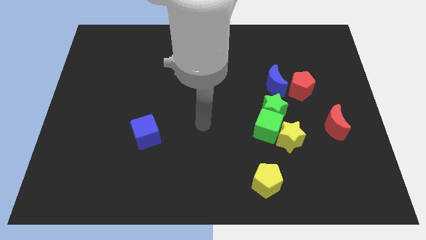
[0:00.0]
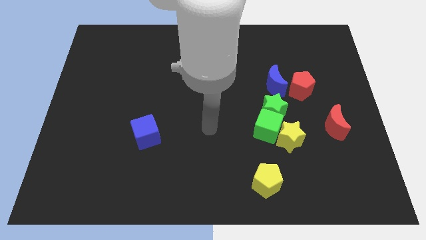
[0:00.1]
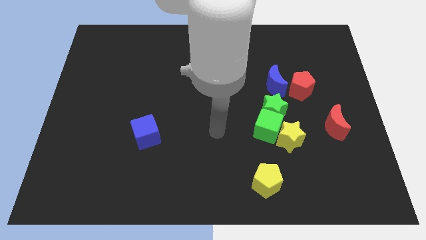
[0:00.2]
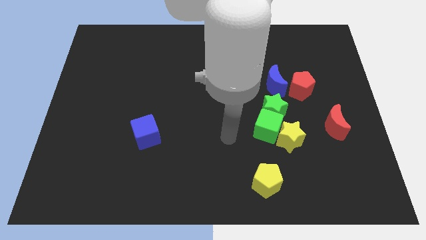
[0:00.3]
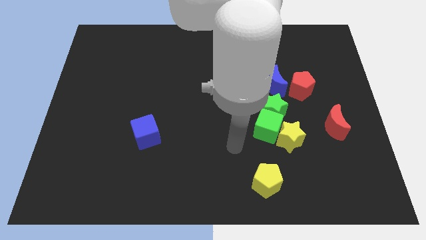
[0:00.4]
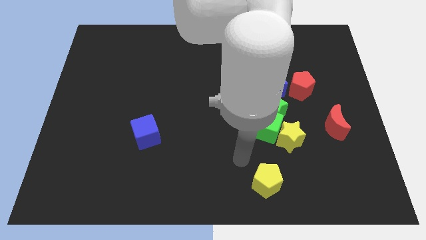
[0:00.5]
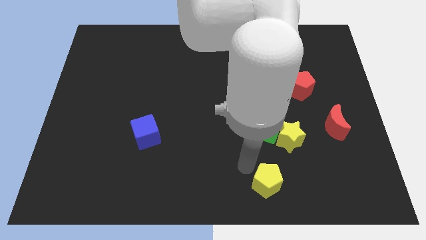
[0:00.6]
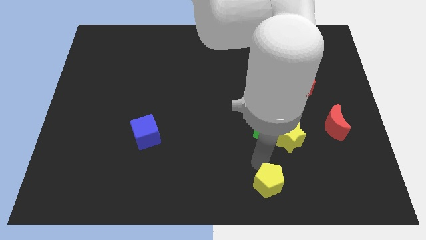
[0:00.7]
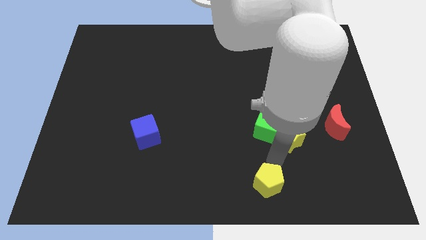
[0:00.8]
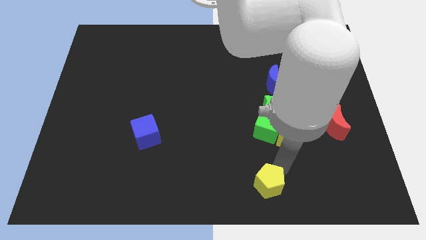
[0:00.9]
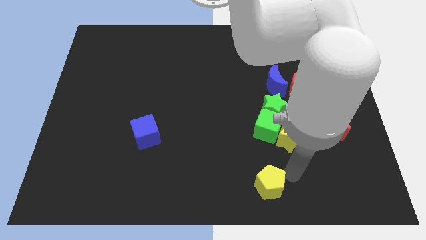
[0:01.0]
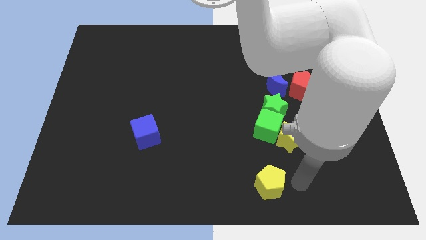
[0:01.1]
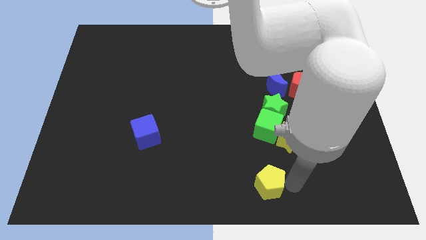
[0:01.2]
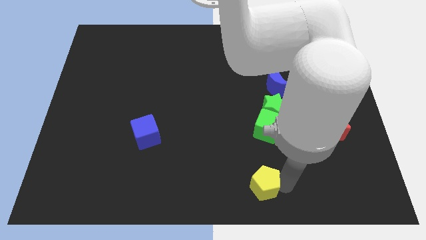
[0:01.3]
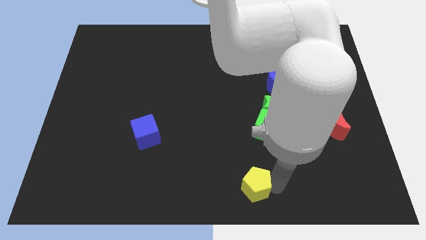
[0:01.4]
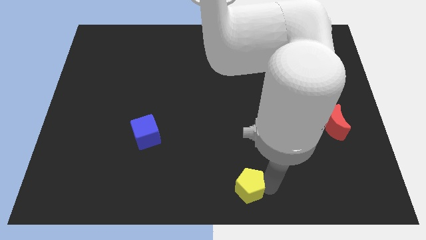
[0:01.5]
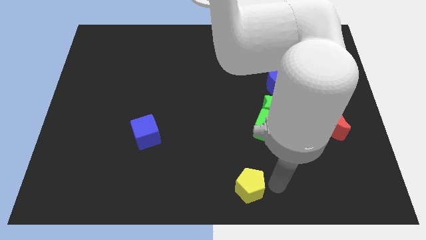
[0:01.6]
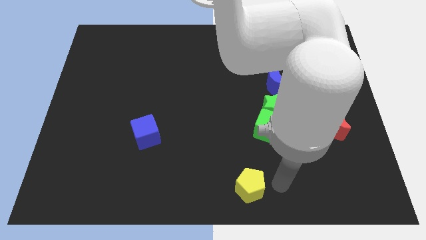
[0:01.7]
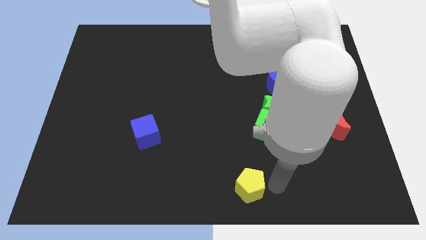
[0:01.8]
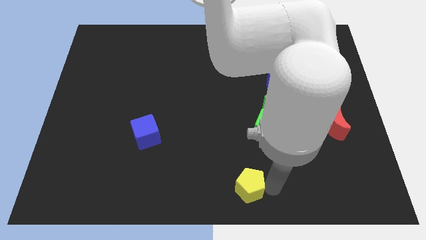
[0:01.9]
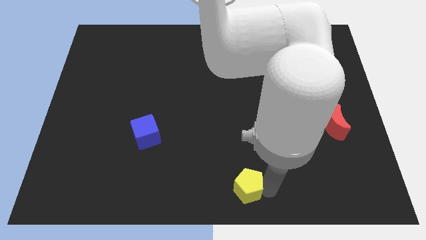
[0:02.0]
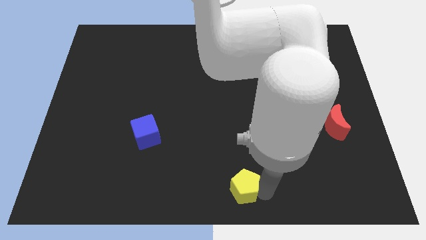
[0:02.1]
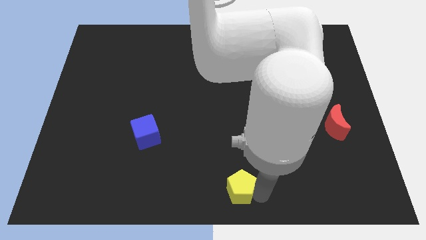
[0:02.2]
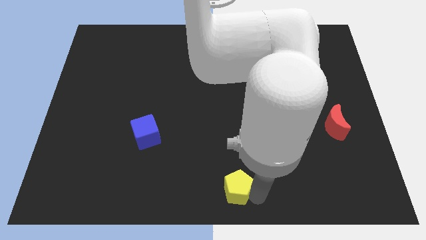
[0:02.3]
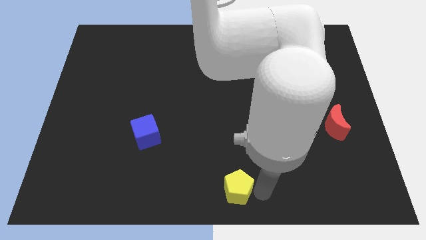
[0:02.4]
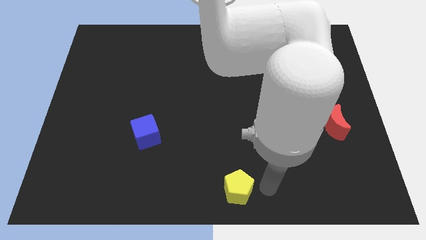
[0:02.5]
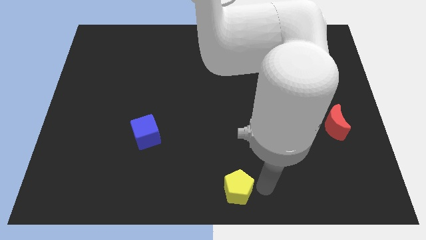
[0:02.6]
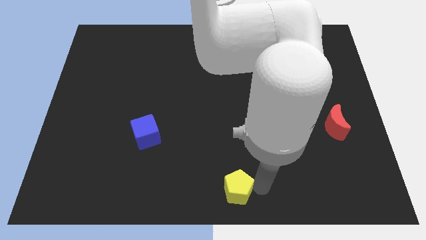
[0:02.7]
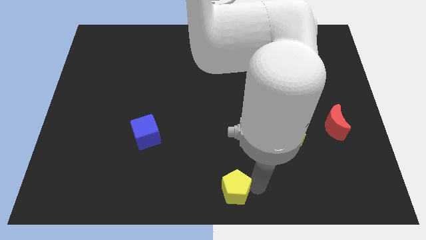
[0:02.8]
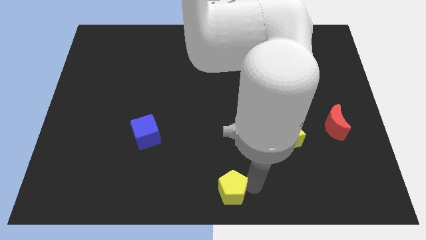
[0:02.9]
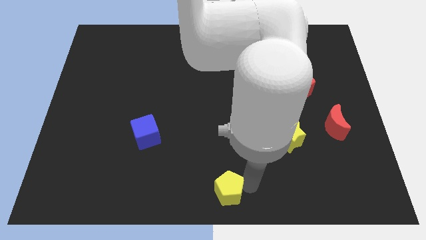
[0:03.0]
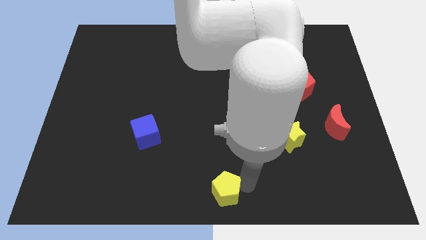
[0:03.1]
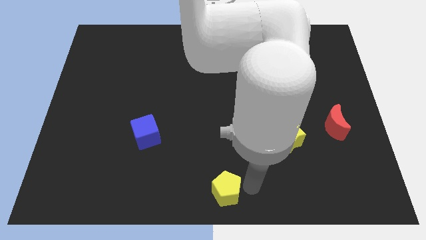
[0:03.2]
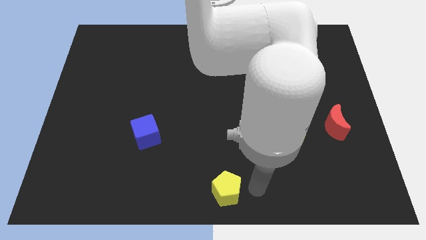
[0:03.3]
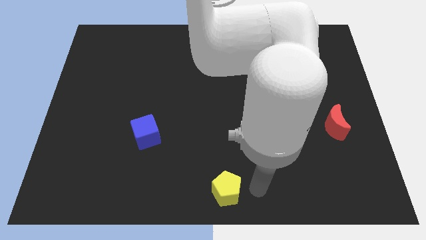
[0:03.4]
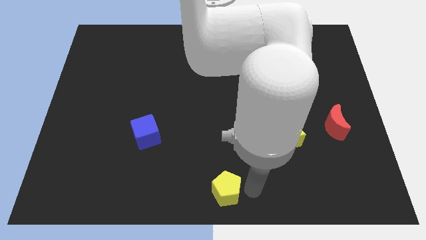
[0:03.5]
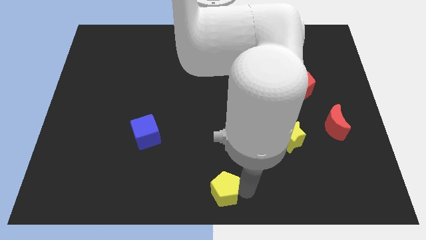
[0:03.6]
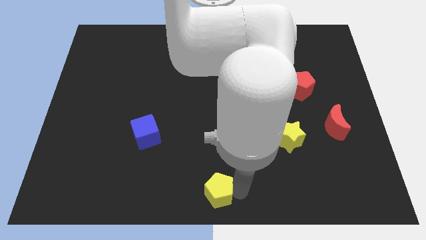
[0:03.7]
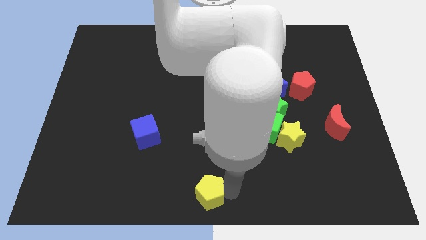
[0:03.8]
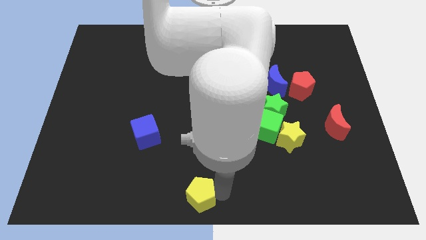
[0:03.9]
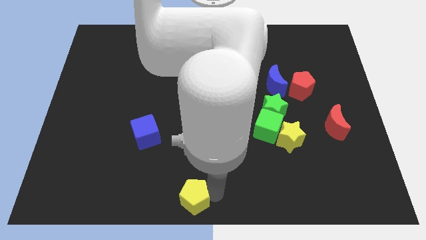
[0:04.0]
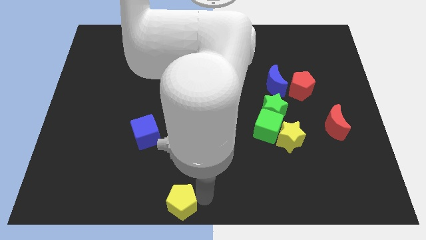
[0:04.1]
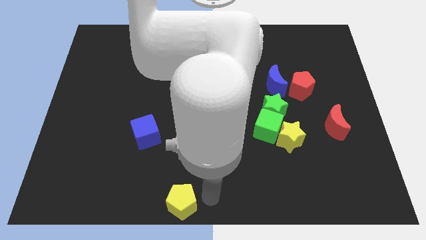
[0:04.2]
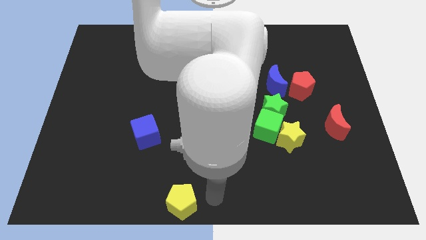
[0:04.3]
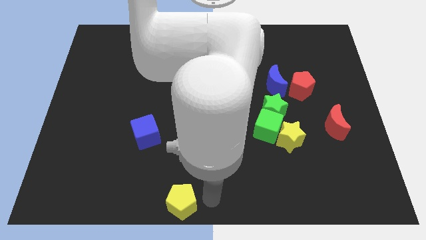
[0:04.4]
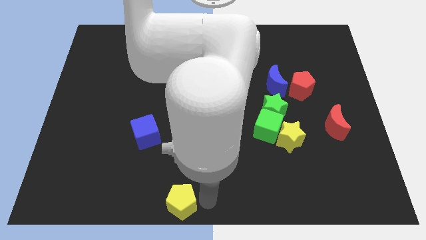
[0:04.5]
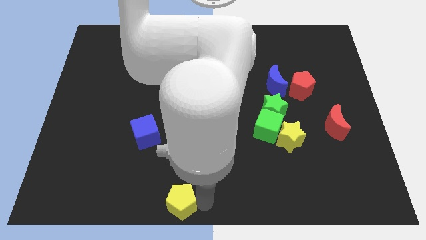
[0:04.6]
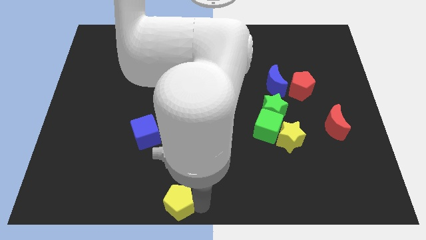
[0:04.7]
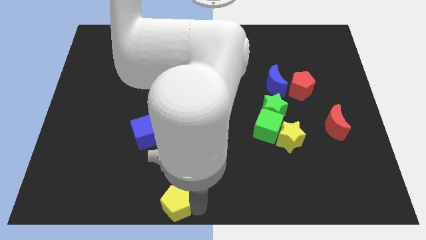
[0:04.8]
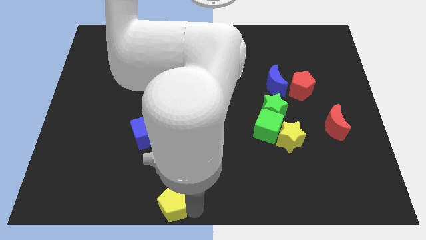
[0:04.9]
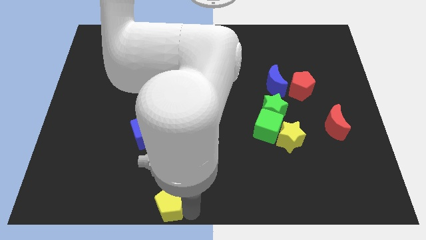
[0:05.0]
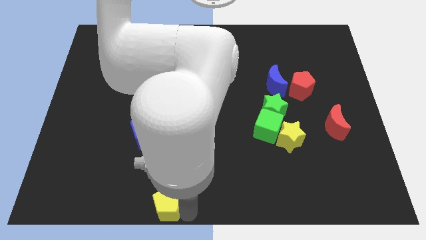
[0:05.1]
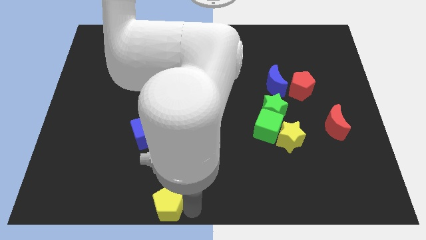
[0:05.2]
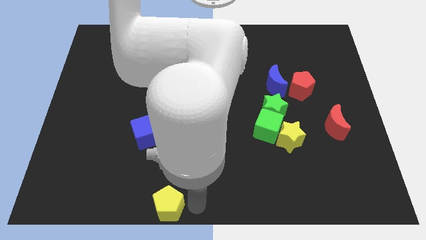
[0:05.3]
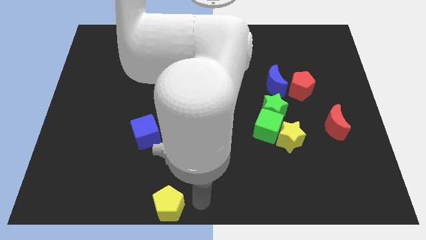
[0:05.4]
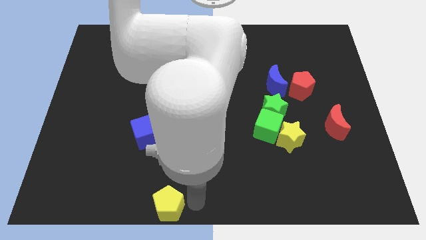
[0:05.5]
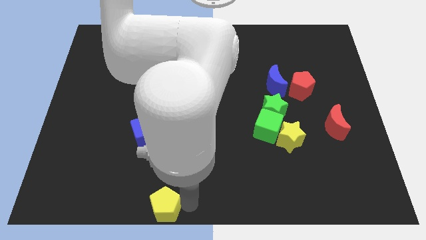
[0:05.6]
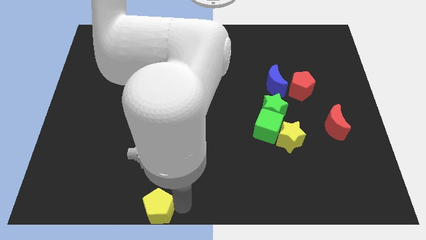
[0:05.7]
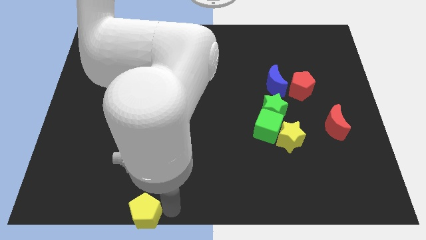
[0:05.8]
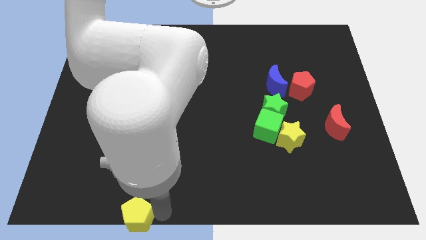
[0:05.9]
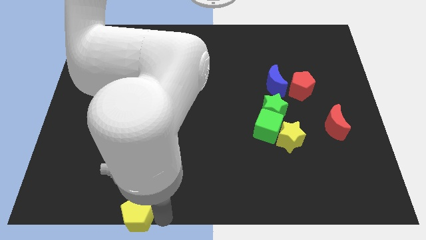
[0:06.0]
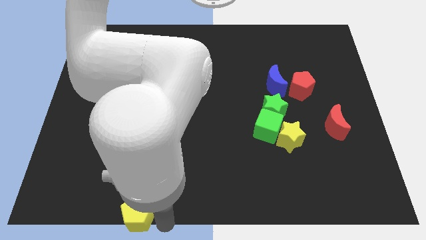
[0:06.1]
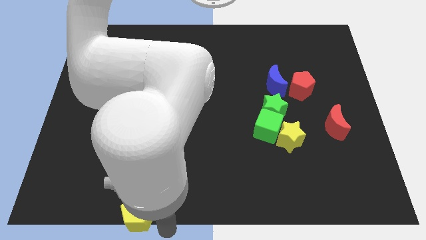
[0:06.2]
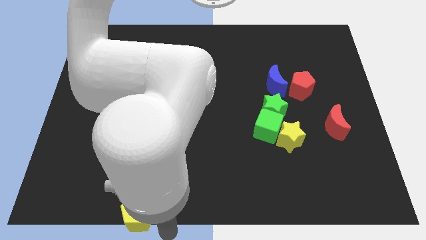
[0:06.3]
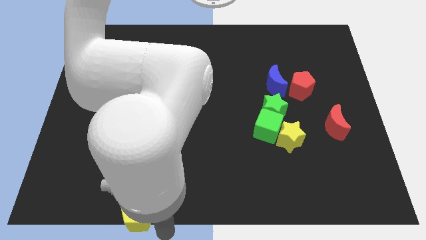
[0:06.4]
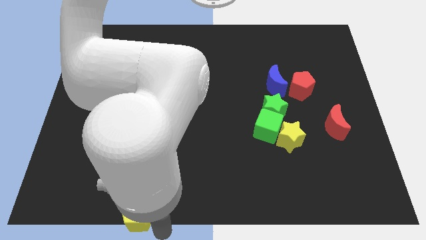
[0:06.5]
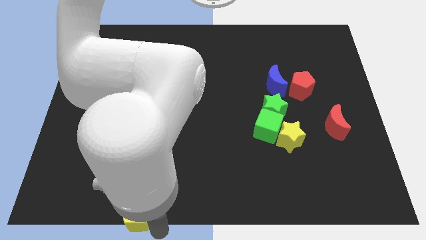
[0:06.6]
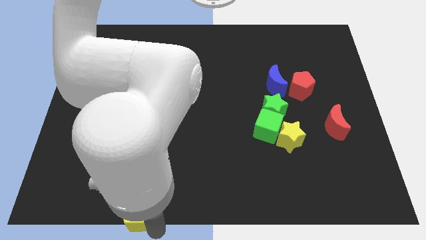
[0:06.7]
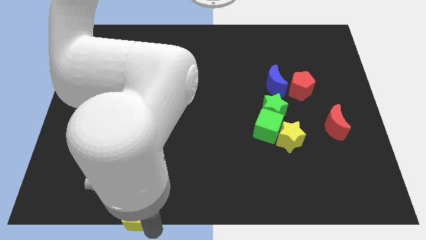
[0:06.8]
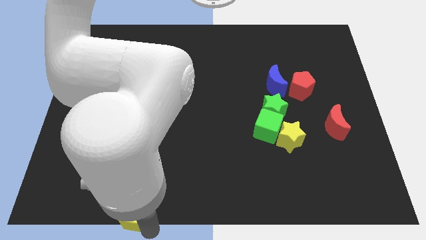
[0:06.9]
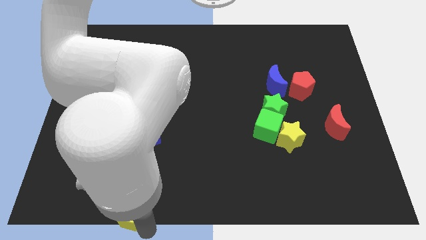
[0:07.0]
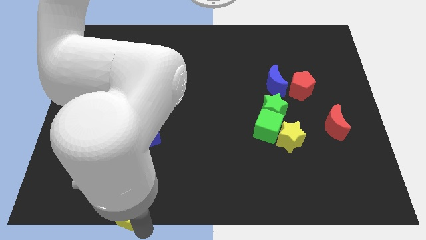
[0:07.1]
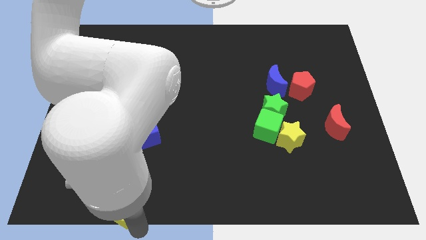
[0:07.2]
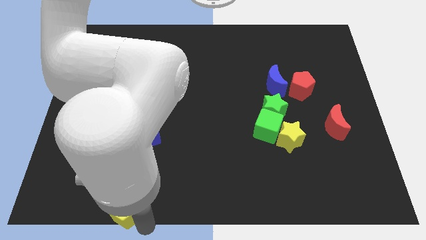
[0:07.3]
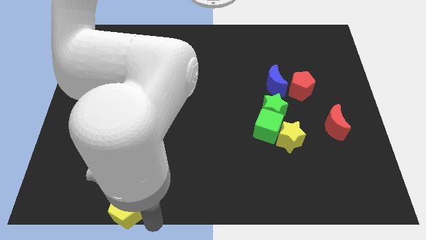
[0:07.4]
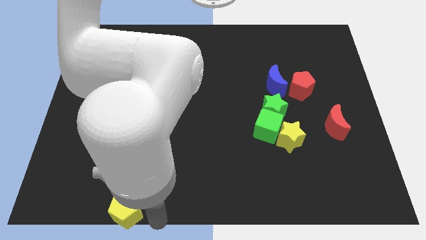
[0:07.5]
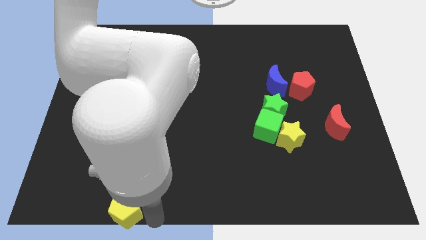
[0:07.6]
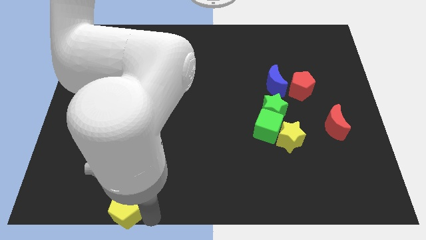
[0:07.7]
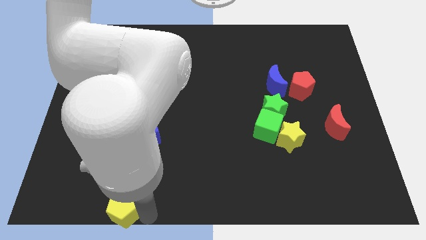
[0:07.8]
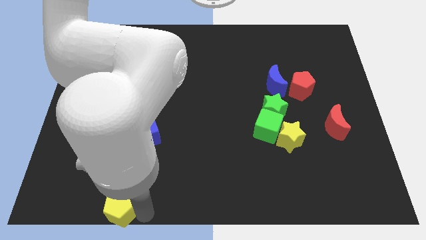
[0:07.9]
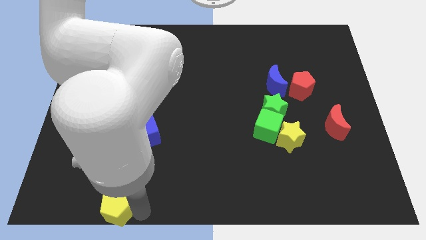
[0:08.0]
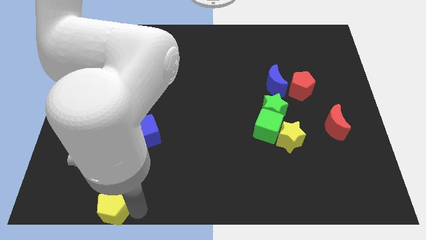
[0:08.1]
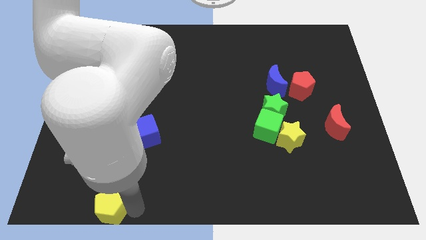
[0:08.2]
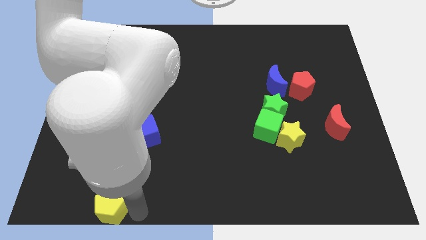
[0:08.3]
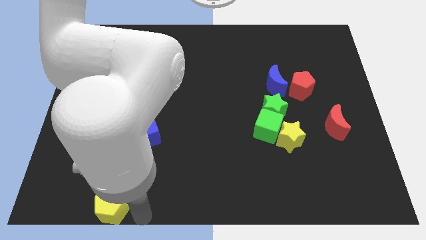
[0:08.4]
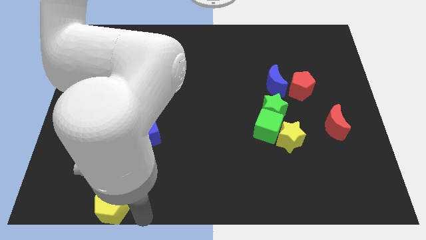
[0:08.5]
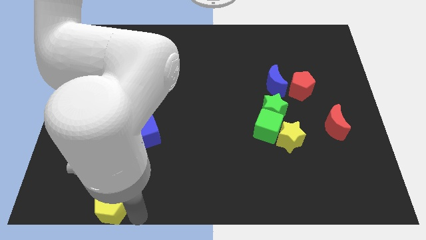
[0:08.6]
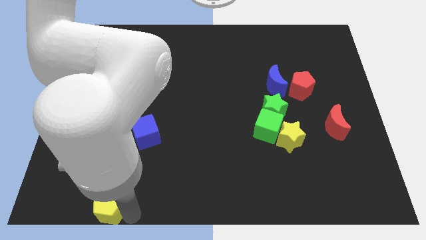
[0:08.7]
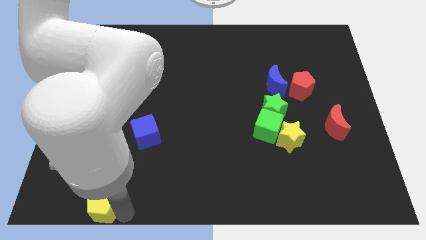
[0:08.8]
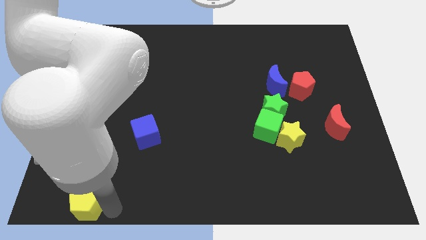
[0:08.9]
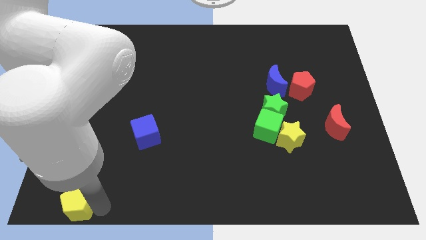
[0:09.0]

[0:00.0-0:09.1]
put the yellow pentagon to the bottom left corner
